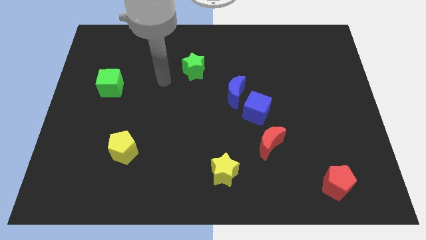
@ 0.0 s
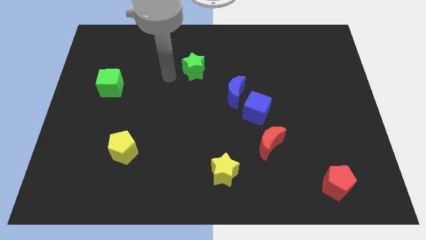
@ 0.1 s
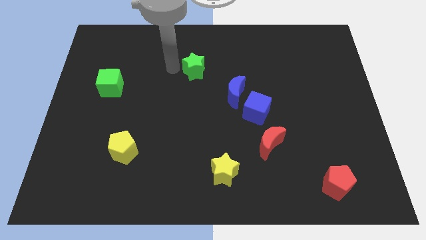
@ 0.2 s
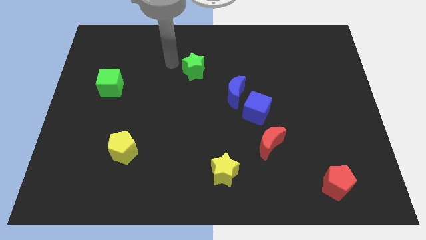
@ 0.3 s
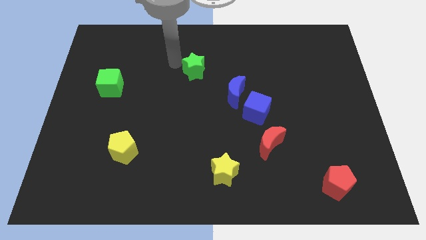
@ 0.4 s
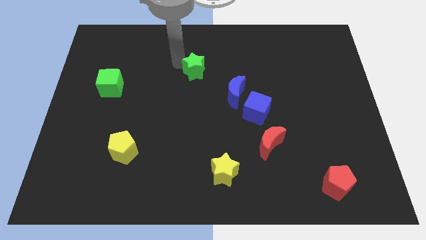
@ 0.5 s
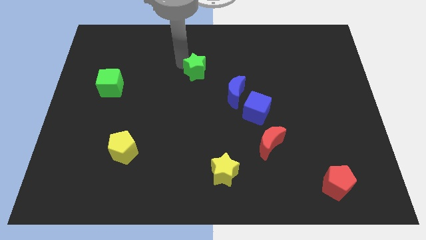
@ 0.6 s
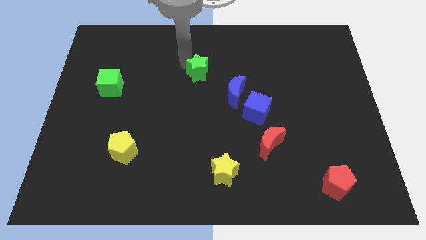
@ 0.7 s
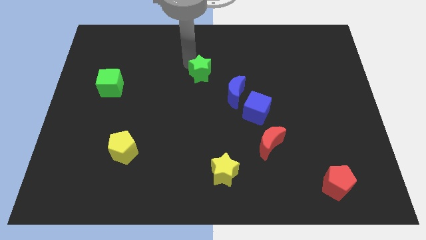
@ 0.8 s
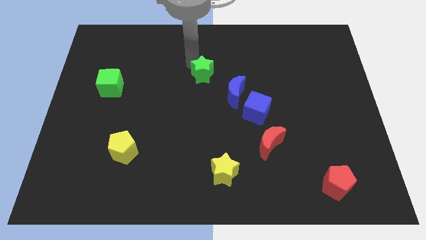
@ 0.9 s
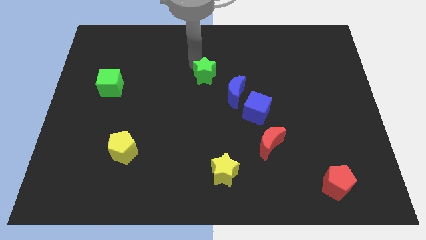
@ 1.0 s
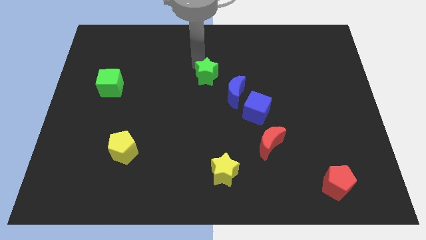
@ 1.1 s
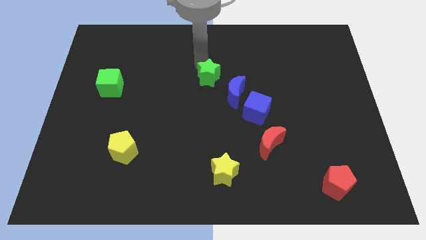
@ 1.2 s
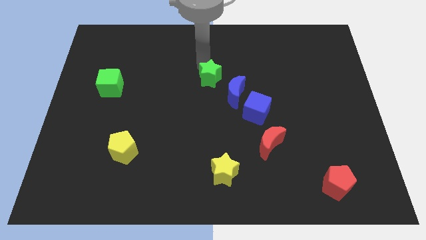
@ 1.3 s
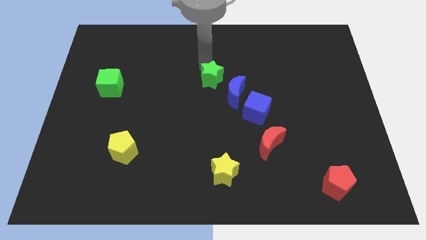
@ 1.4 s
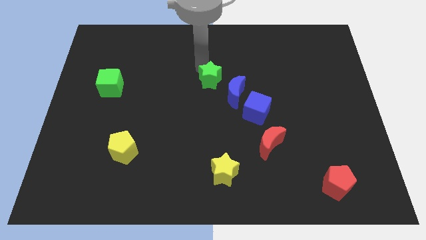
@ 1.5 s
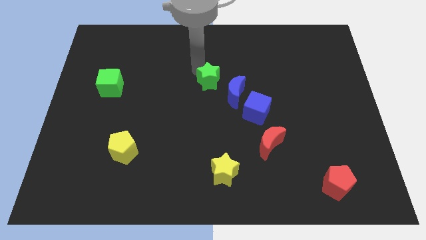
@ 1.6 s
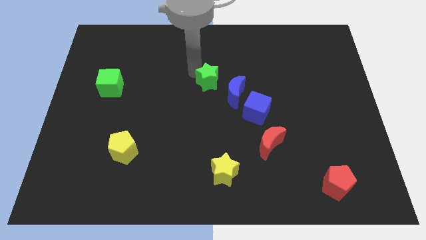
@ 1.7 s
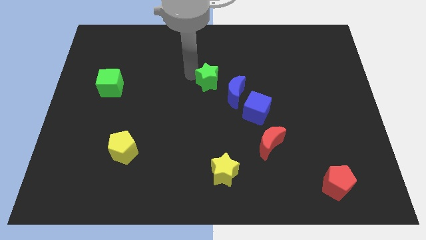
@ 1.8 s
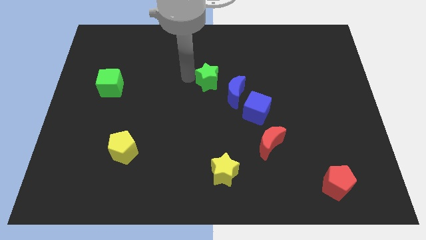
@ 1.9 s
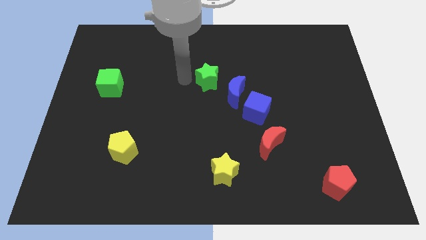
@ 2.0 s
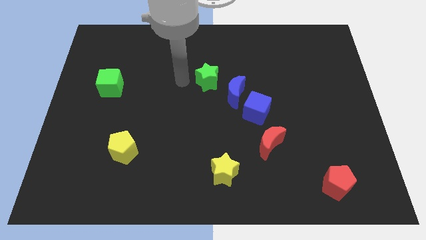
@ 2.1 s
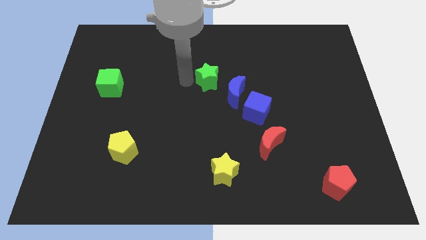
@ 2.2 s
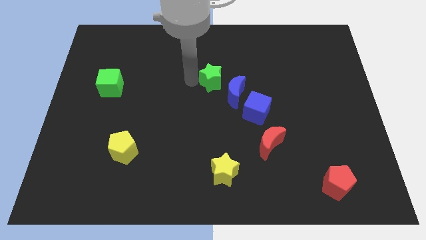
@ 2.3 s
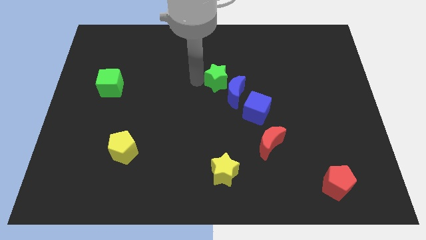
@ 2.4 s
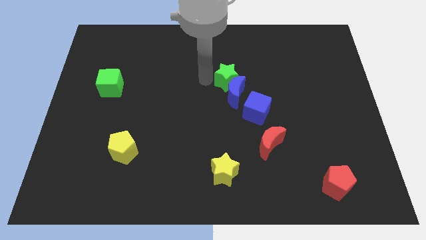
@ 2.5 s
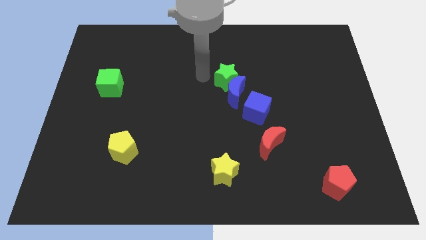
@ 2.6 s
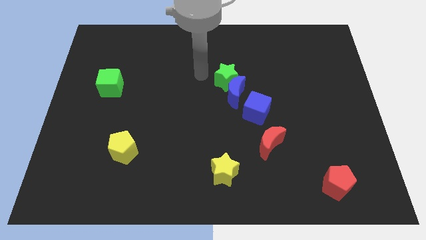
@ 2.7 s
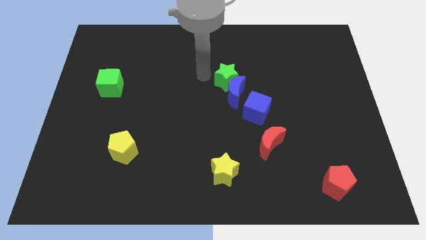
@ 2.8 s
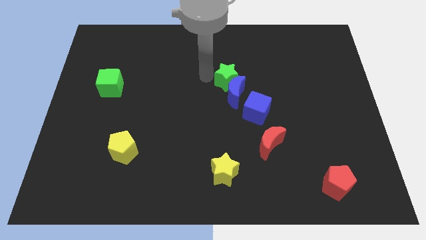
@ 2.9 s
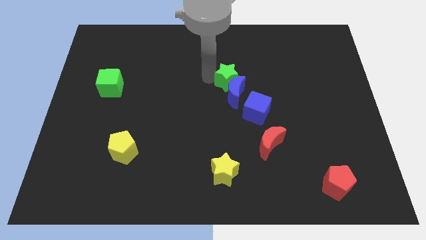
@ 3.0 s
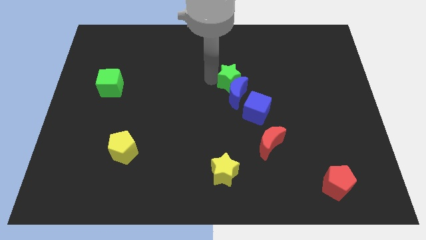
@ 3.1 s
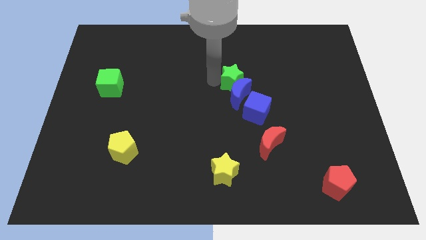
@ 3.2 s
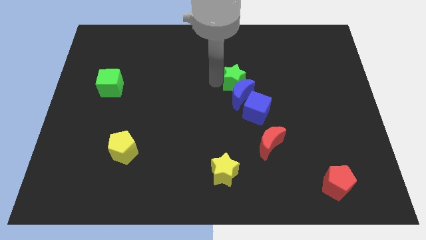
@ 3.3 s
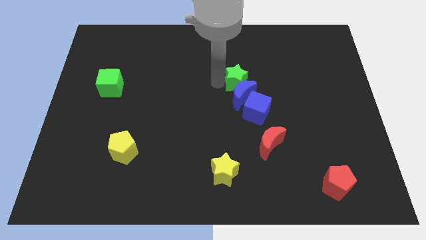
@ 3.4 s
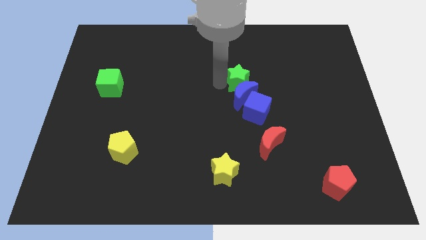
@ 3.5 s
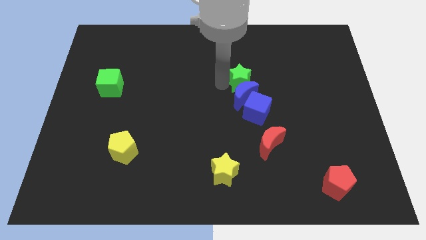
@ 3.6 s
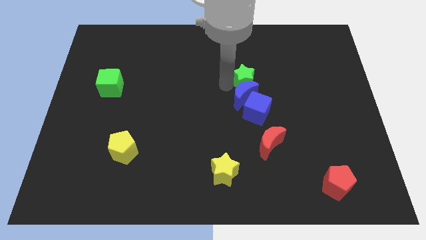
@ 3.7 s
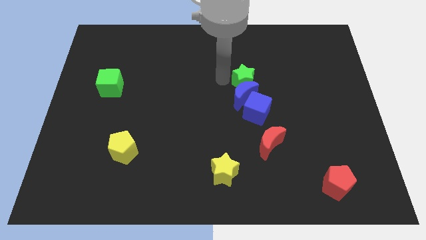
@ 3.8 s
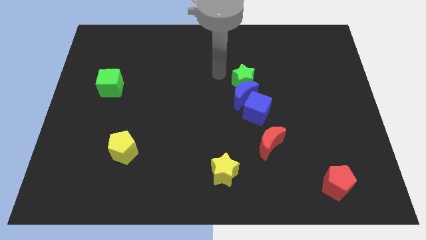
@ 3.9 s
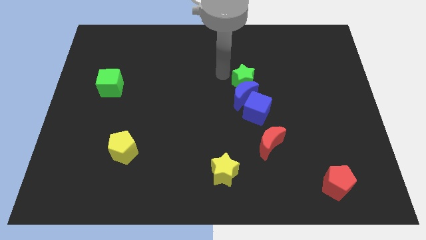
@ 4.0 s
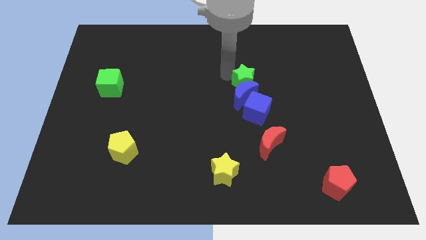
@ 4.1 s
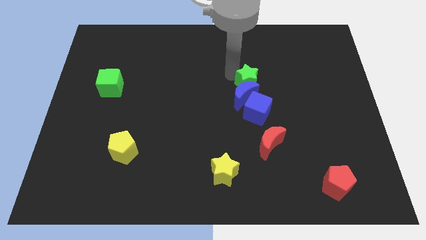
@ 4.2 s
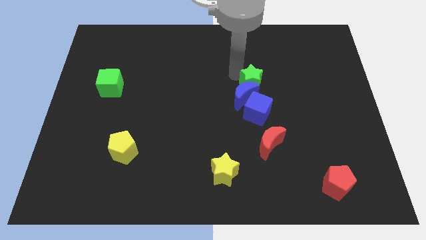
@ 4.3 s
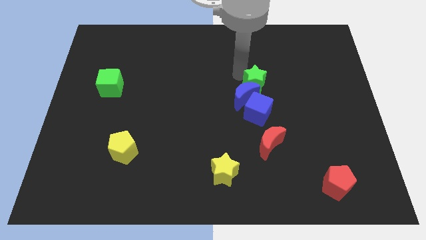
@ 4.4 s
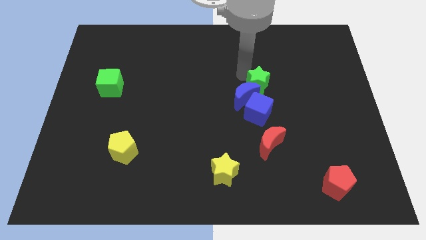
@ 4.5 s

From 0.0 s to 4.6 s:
slide the green star to the right side of the blue moon

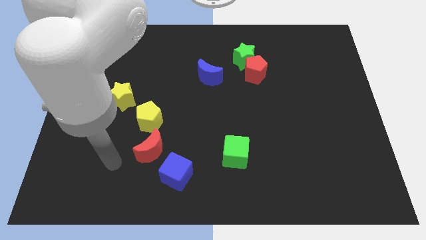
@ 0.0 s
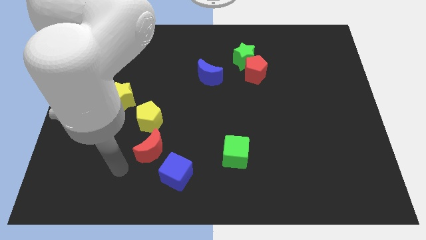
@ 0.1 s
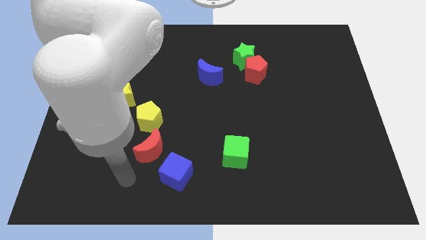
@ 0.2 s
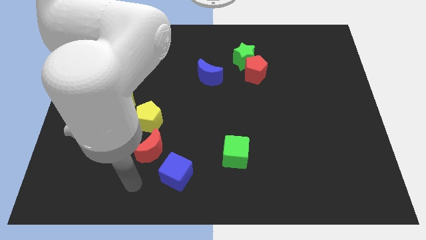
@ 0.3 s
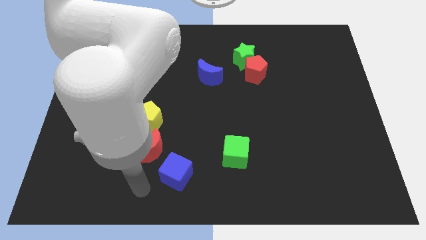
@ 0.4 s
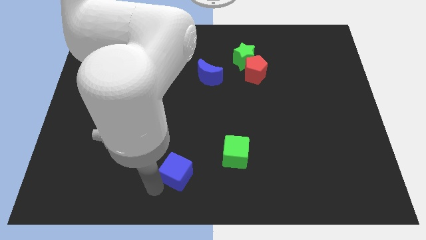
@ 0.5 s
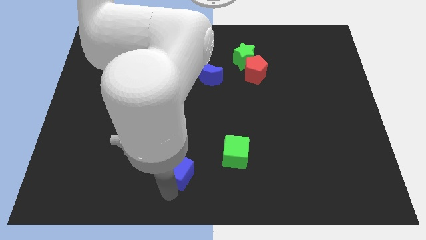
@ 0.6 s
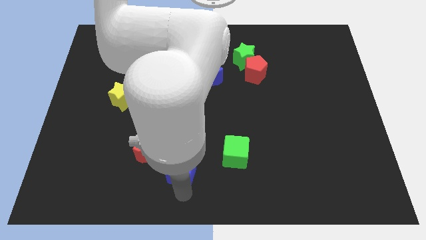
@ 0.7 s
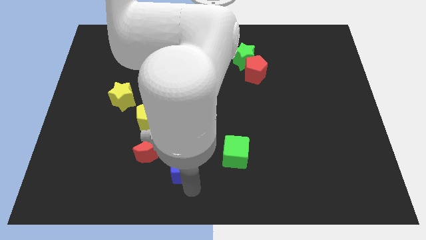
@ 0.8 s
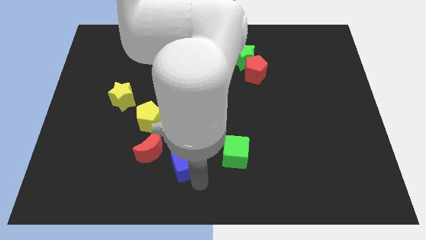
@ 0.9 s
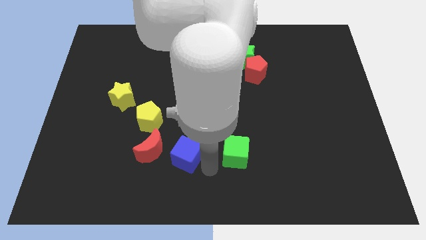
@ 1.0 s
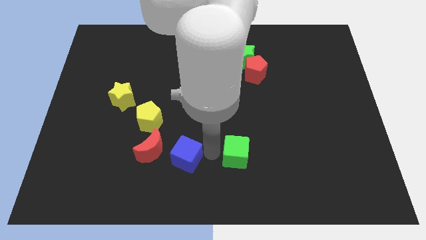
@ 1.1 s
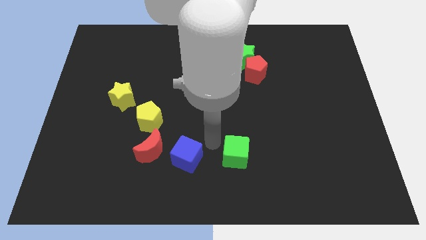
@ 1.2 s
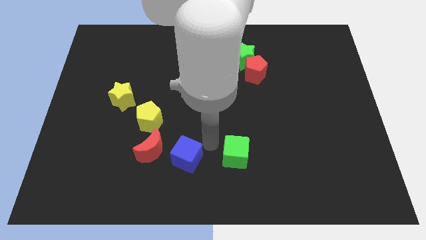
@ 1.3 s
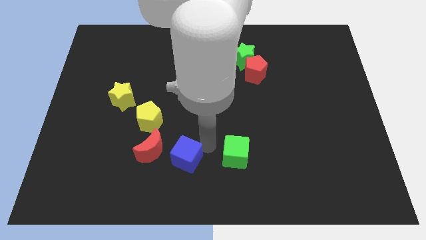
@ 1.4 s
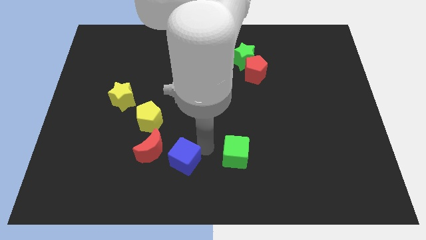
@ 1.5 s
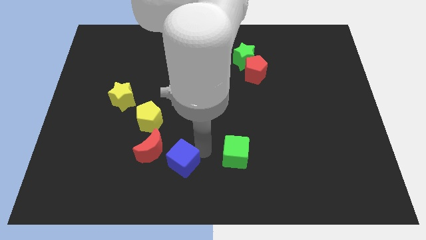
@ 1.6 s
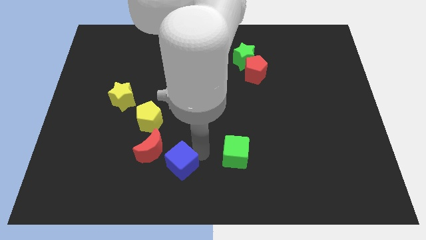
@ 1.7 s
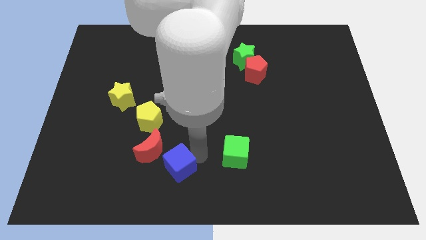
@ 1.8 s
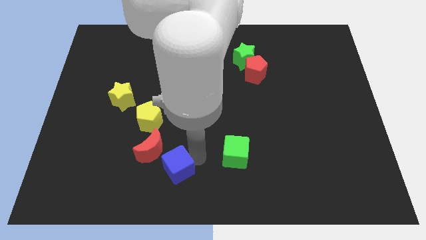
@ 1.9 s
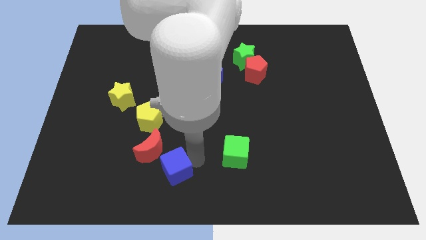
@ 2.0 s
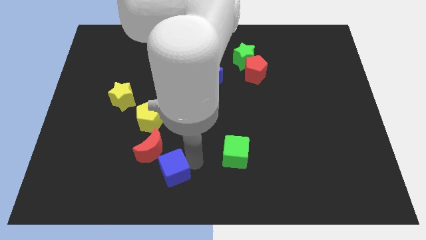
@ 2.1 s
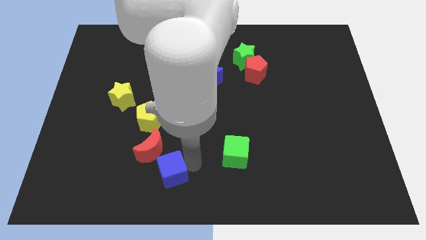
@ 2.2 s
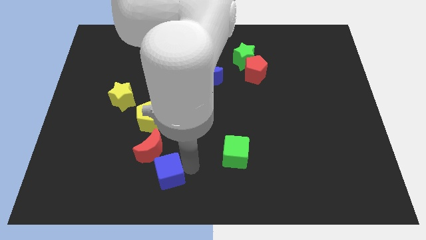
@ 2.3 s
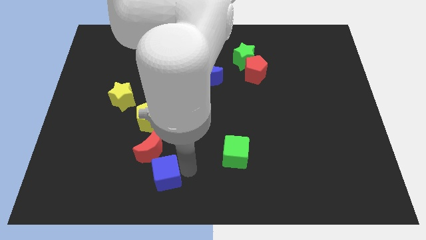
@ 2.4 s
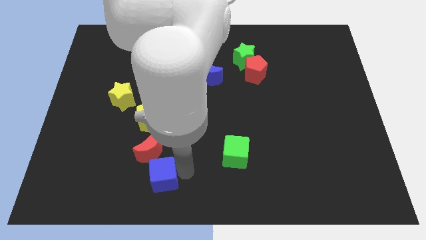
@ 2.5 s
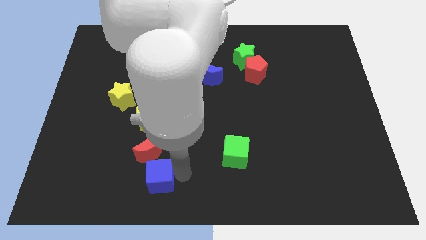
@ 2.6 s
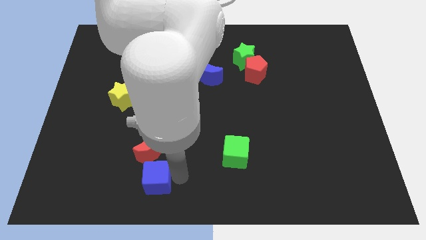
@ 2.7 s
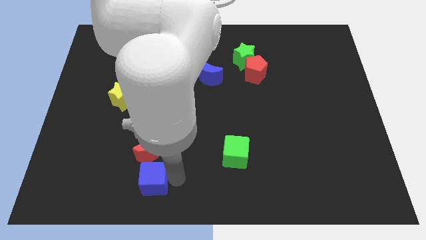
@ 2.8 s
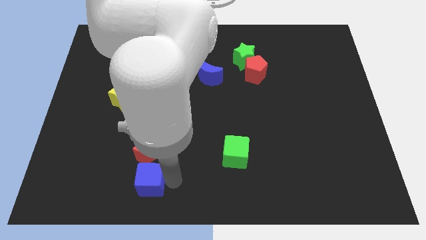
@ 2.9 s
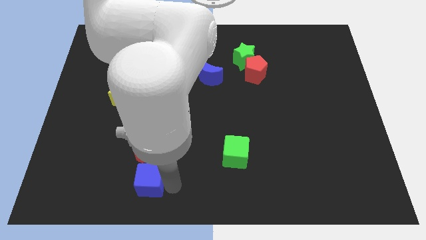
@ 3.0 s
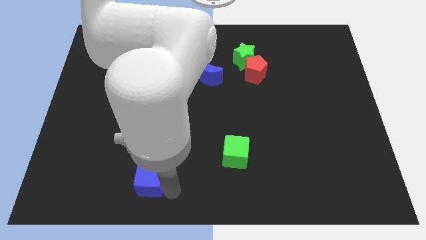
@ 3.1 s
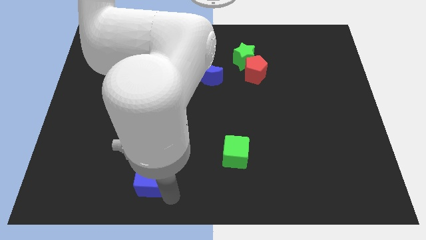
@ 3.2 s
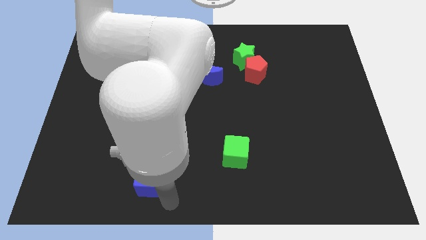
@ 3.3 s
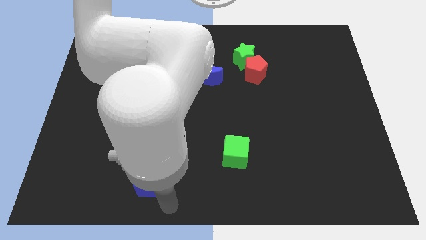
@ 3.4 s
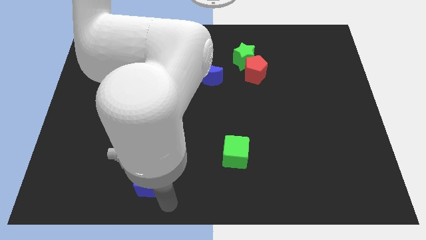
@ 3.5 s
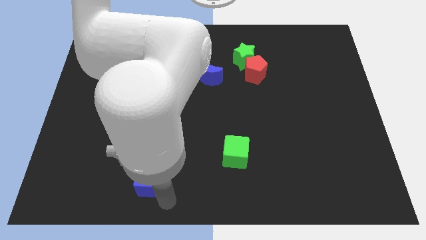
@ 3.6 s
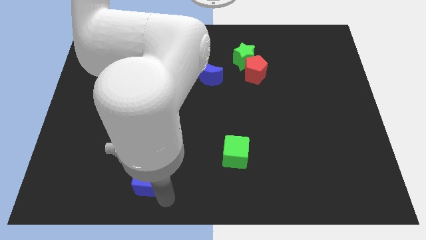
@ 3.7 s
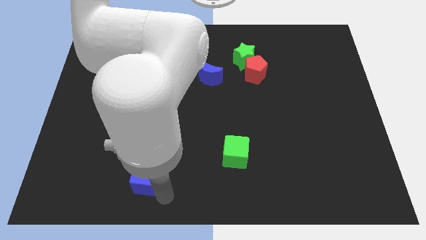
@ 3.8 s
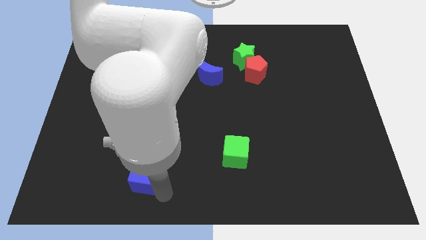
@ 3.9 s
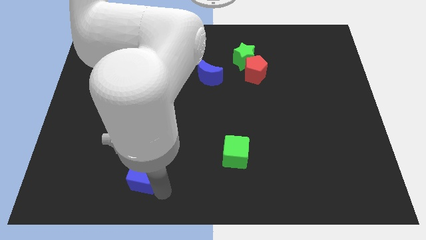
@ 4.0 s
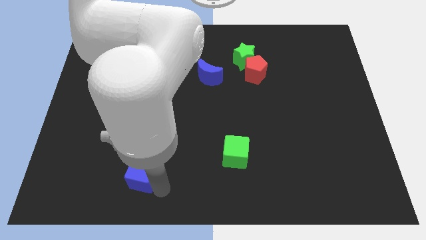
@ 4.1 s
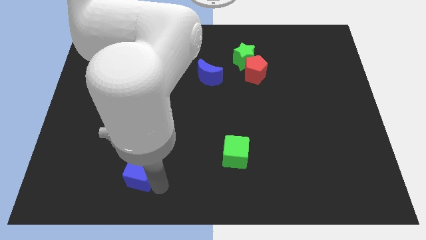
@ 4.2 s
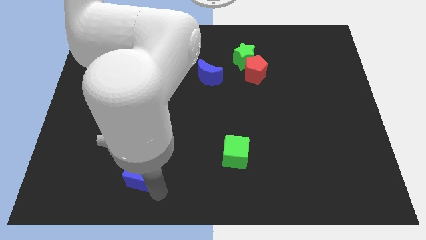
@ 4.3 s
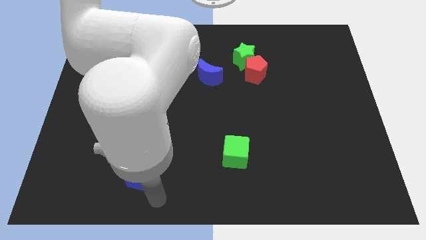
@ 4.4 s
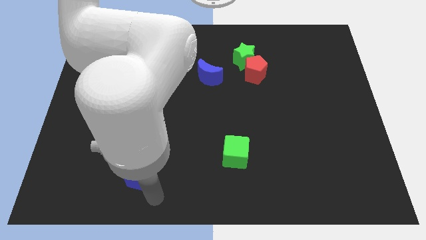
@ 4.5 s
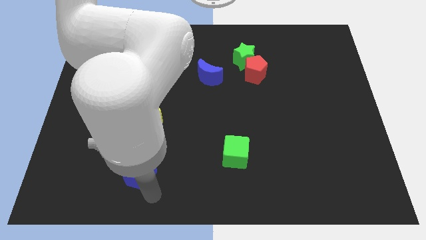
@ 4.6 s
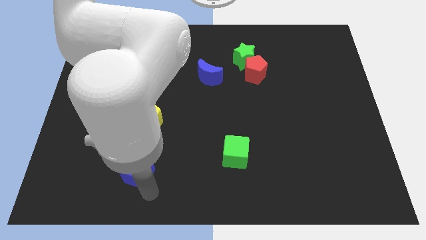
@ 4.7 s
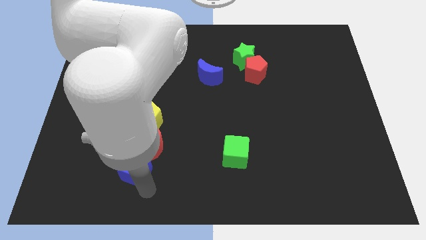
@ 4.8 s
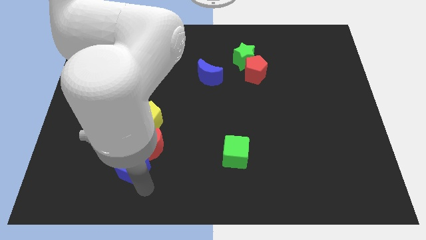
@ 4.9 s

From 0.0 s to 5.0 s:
move the blue cube to the left side of the red moon
